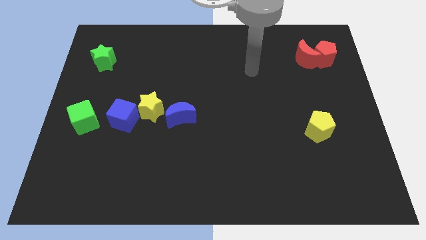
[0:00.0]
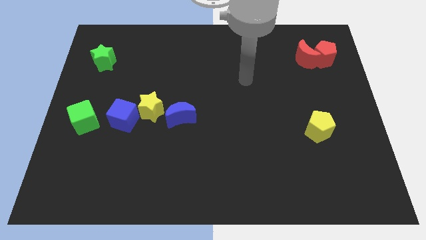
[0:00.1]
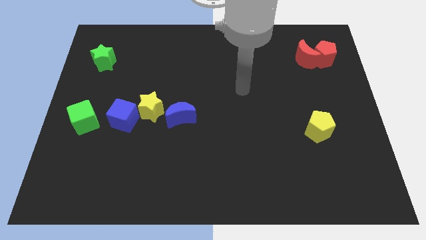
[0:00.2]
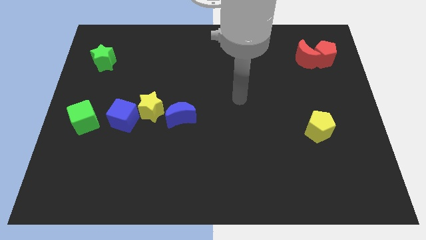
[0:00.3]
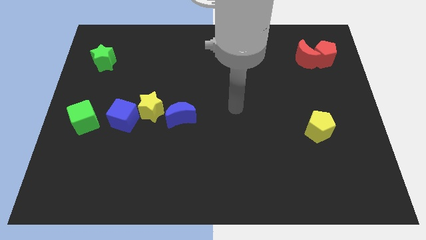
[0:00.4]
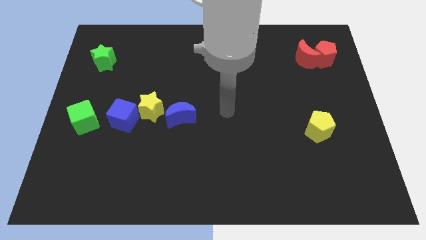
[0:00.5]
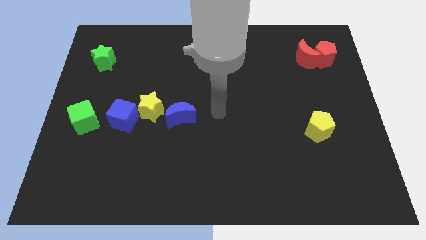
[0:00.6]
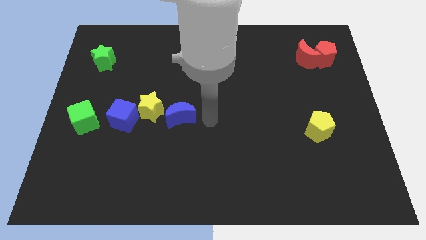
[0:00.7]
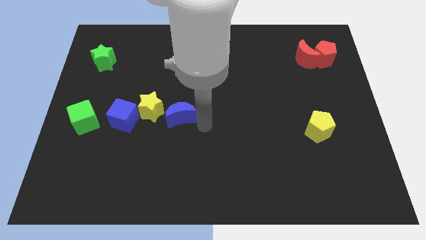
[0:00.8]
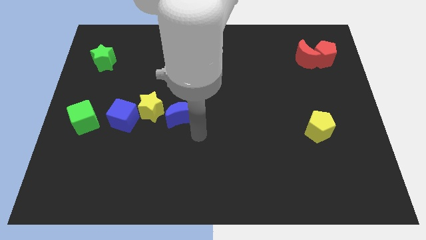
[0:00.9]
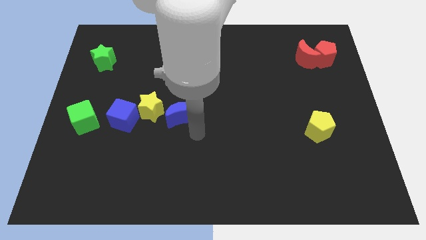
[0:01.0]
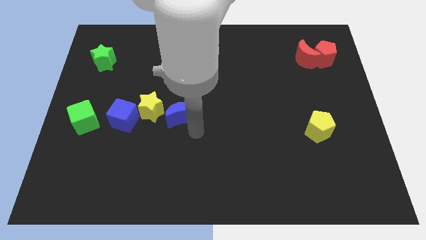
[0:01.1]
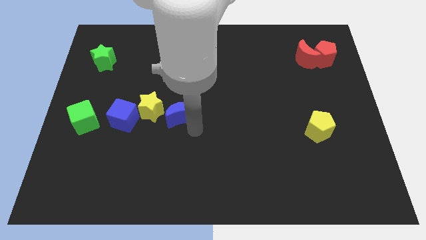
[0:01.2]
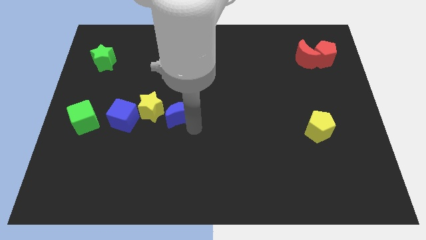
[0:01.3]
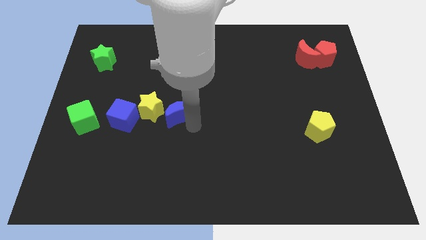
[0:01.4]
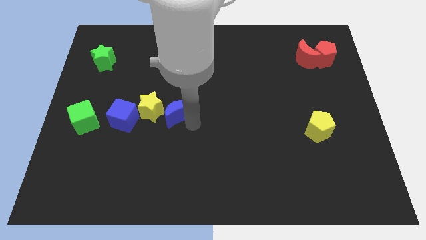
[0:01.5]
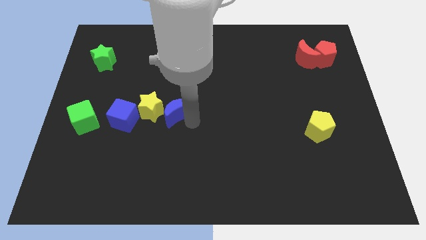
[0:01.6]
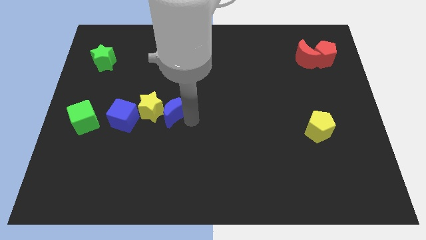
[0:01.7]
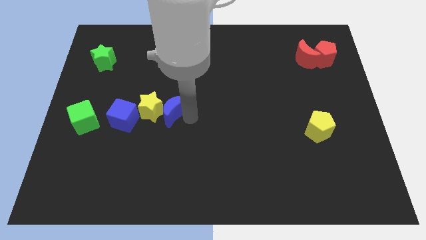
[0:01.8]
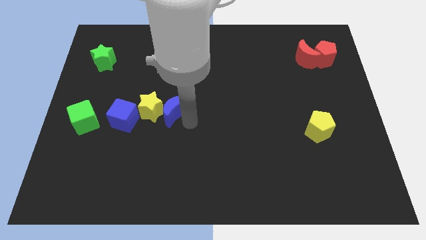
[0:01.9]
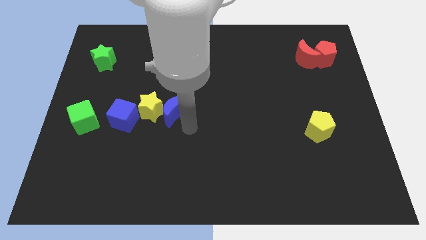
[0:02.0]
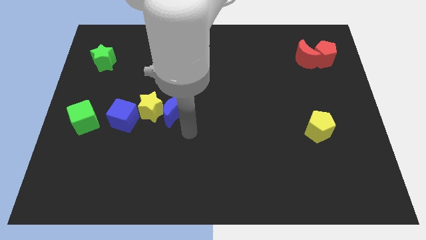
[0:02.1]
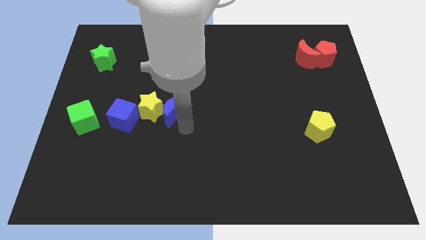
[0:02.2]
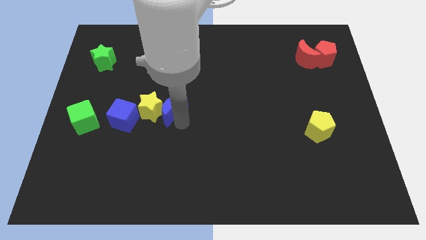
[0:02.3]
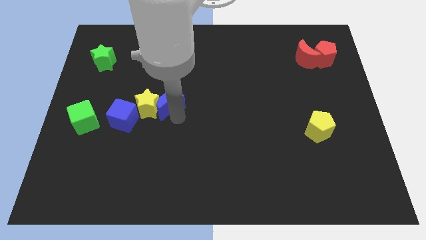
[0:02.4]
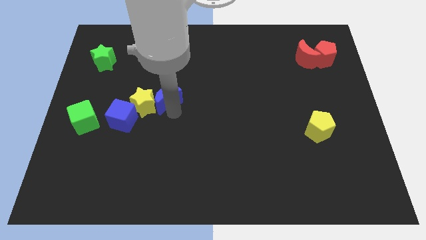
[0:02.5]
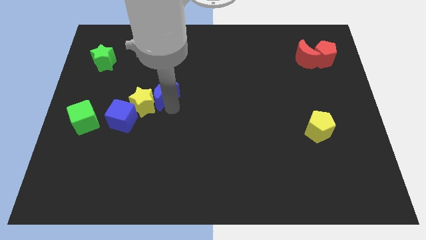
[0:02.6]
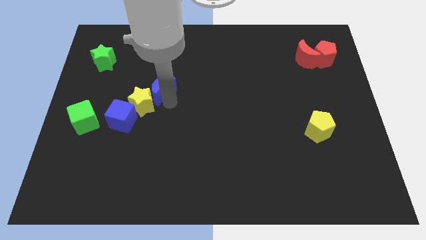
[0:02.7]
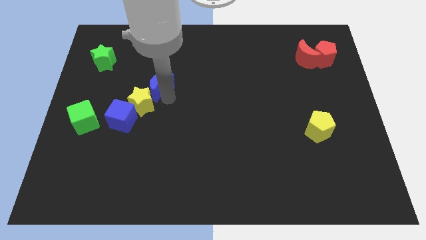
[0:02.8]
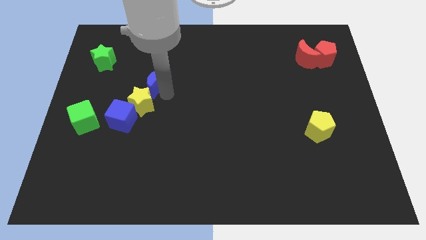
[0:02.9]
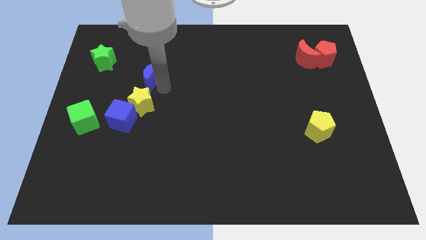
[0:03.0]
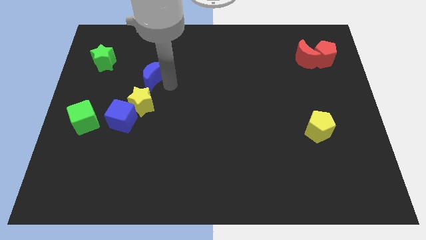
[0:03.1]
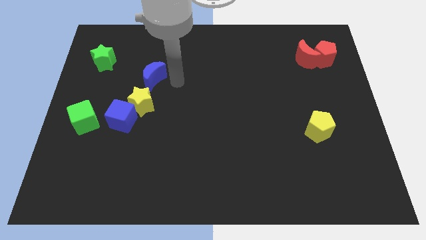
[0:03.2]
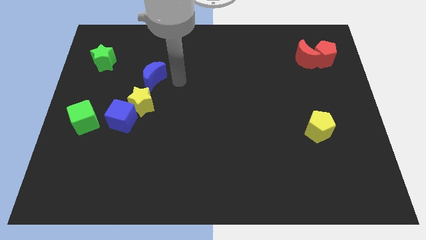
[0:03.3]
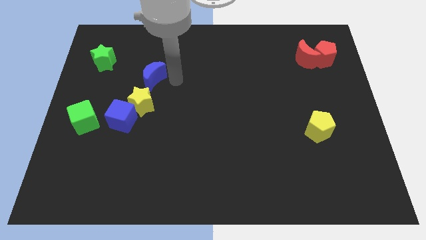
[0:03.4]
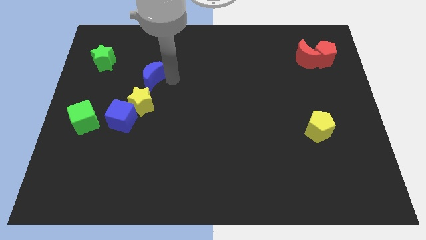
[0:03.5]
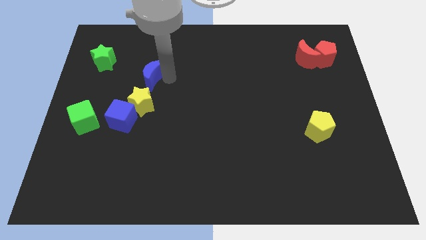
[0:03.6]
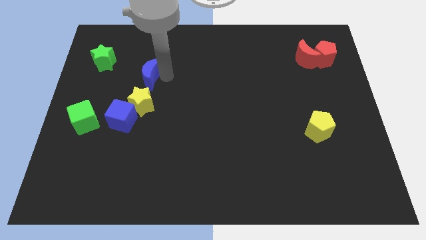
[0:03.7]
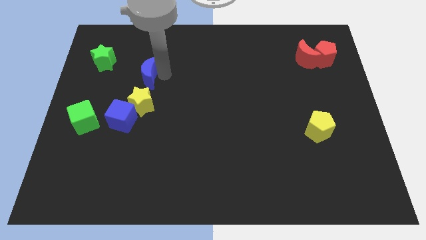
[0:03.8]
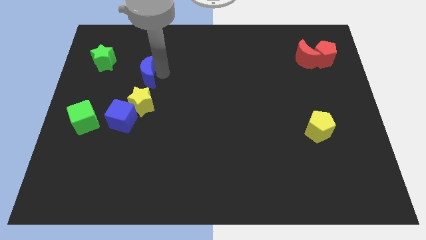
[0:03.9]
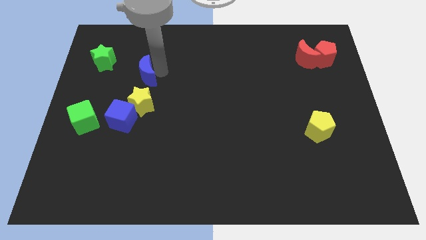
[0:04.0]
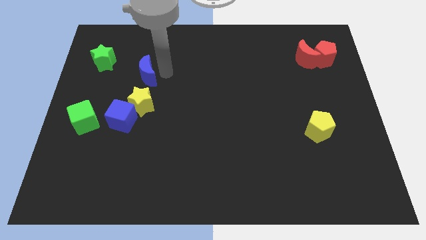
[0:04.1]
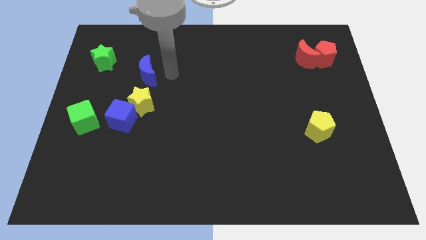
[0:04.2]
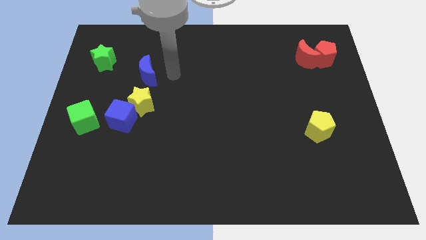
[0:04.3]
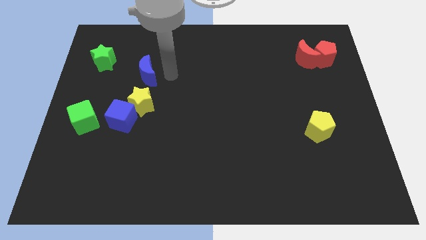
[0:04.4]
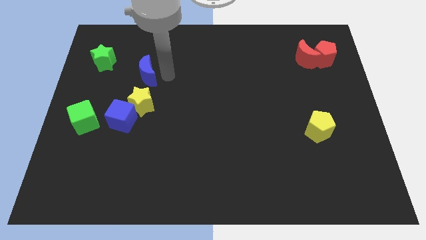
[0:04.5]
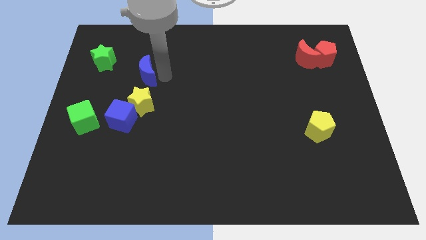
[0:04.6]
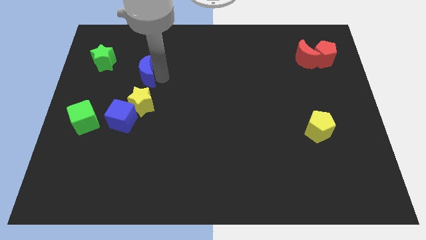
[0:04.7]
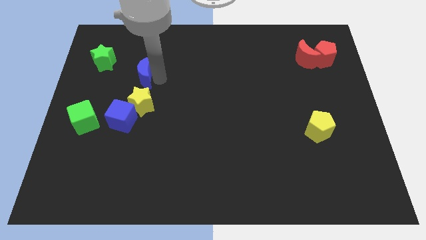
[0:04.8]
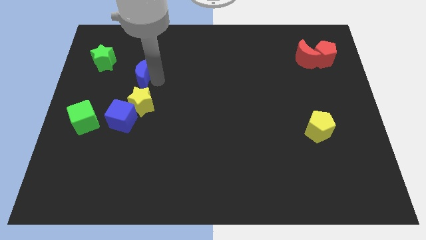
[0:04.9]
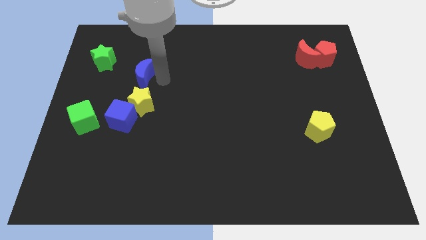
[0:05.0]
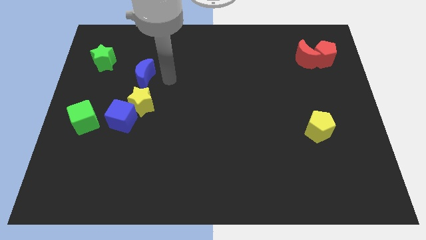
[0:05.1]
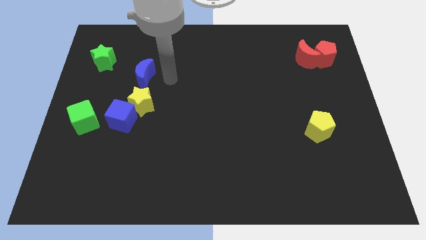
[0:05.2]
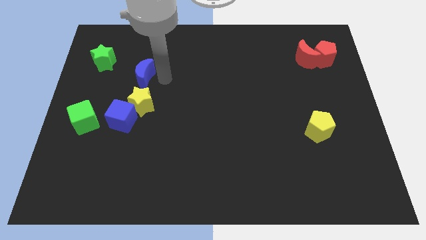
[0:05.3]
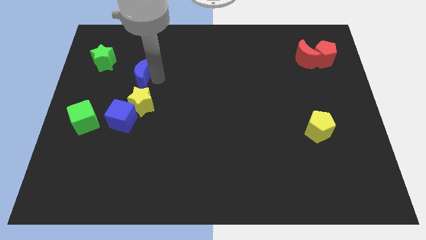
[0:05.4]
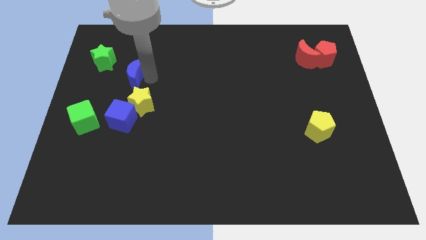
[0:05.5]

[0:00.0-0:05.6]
put the blue moon to the bottom right side of the green star

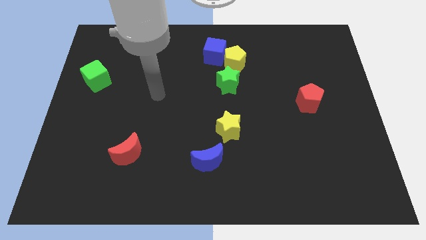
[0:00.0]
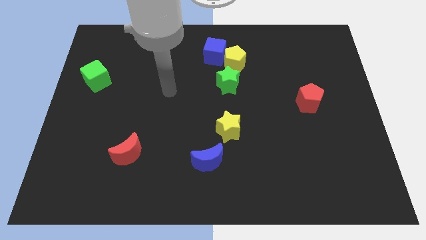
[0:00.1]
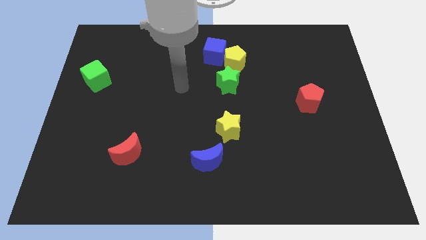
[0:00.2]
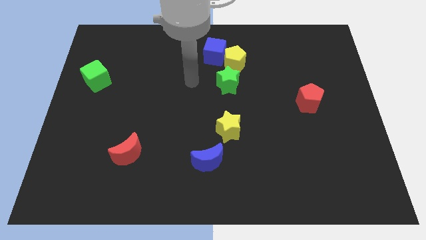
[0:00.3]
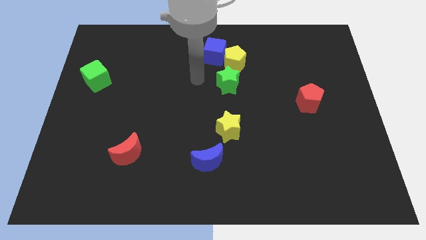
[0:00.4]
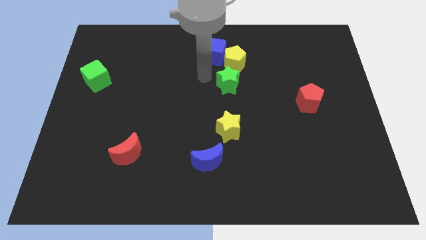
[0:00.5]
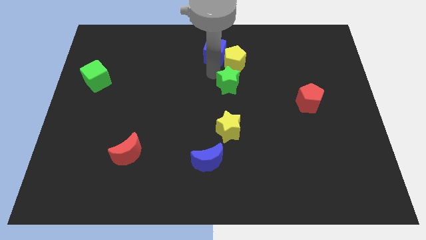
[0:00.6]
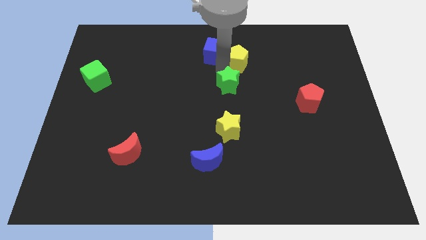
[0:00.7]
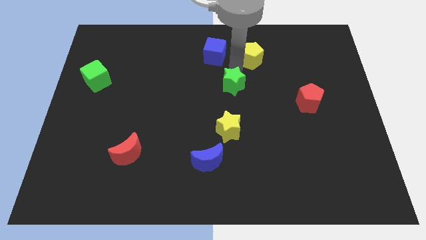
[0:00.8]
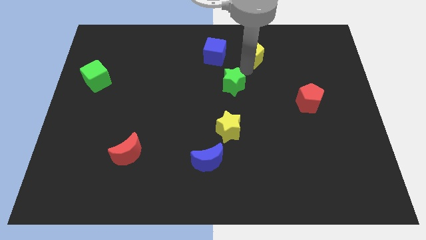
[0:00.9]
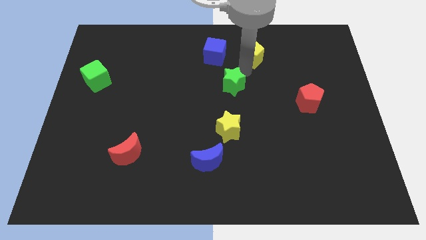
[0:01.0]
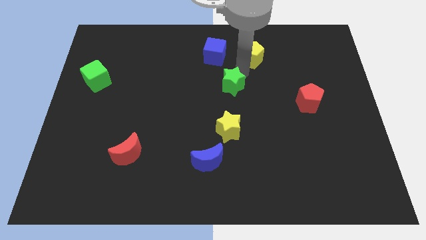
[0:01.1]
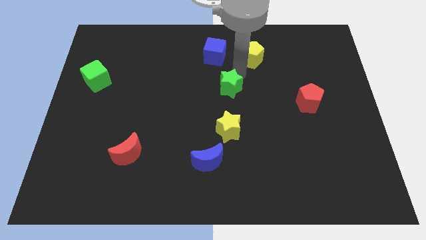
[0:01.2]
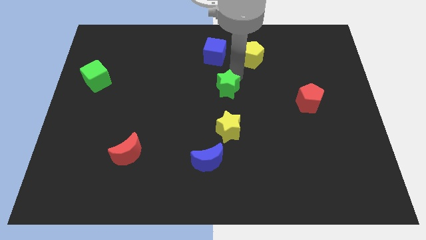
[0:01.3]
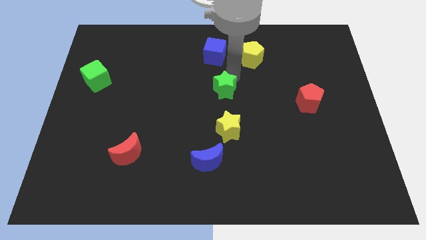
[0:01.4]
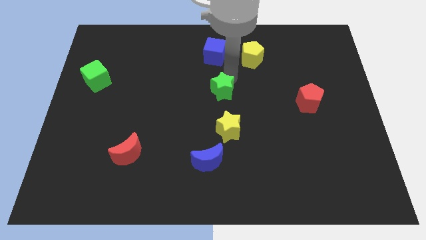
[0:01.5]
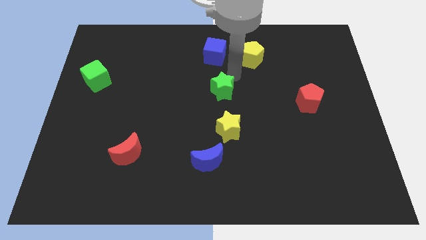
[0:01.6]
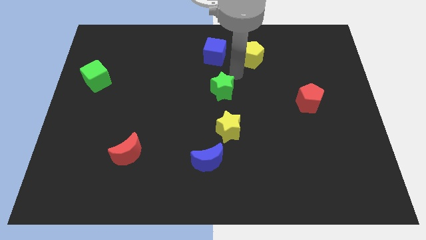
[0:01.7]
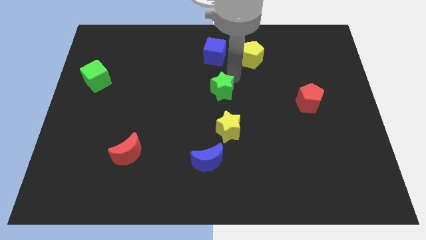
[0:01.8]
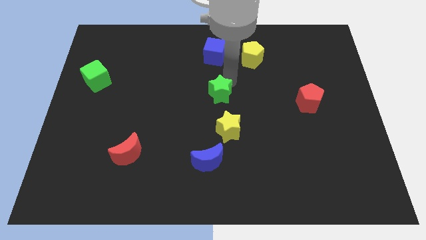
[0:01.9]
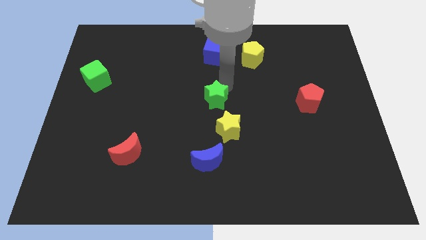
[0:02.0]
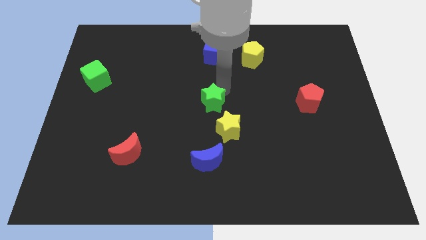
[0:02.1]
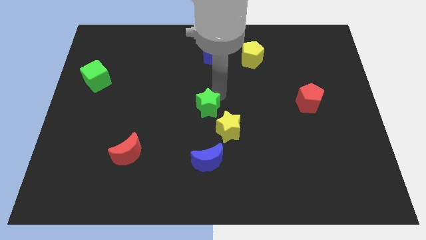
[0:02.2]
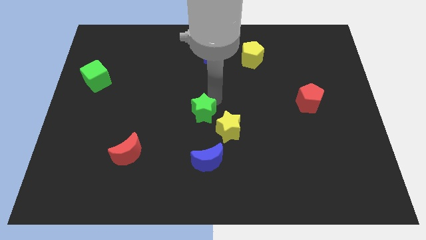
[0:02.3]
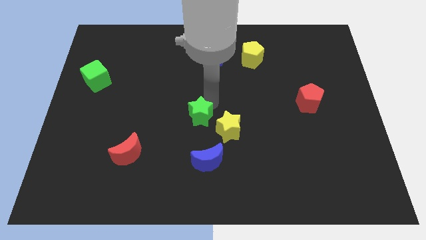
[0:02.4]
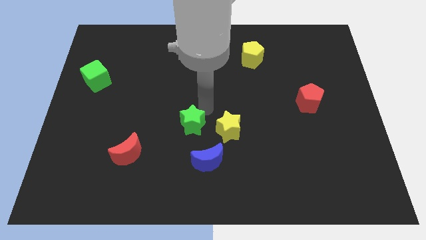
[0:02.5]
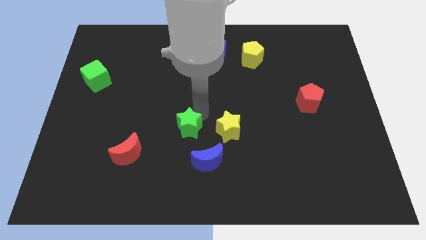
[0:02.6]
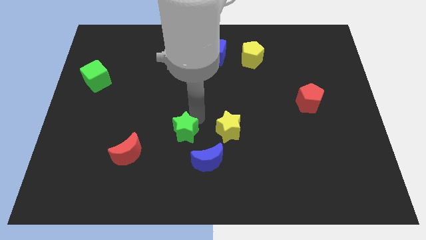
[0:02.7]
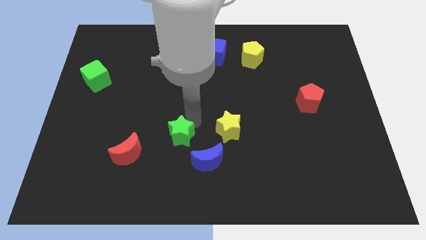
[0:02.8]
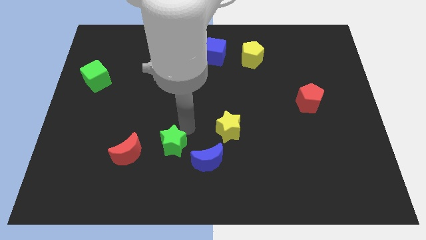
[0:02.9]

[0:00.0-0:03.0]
slide the green star to the left of the blue moon
